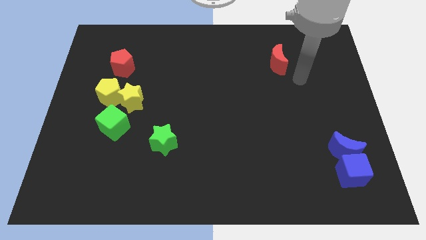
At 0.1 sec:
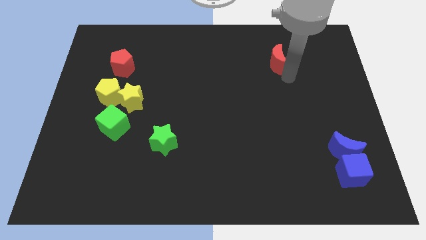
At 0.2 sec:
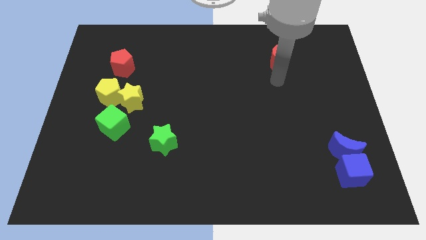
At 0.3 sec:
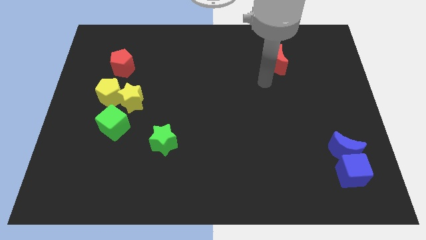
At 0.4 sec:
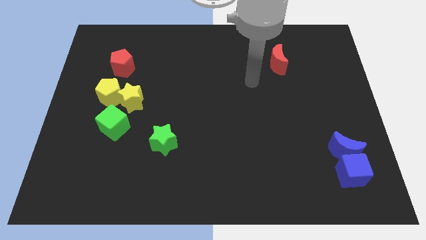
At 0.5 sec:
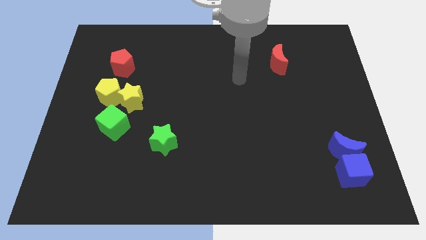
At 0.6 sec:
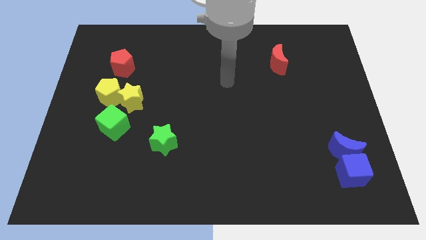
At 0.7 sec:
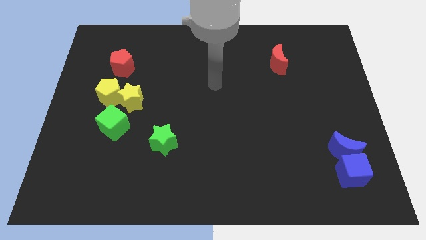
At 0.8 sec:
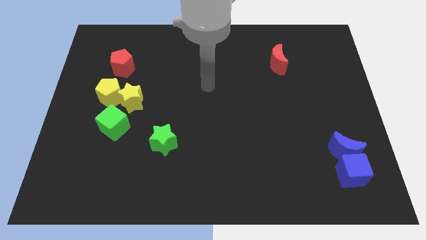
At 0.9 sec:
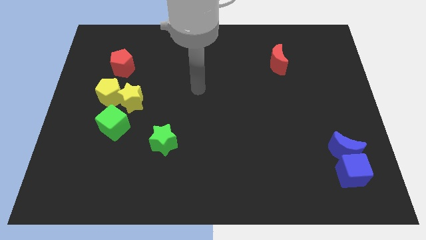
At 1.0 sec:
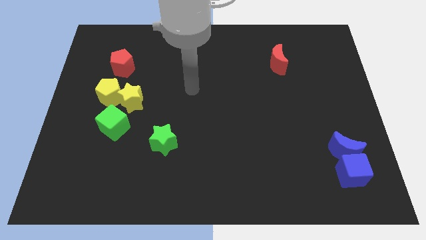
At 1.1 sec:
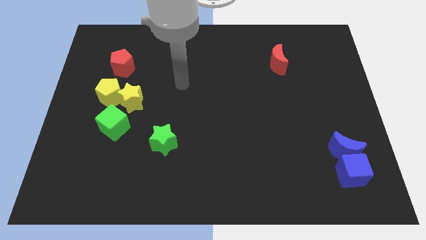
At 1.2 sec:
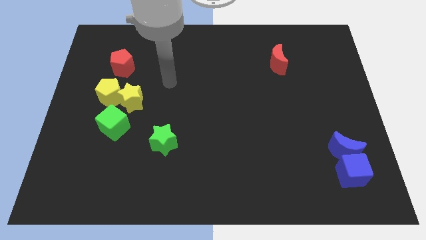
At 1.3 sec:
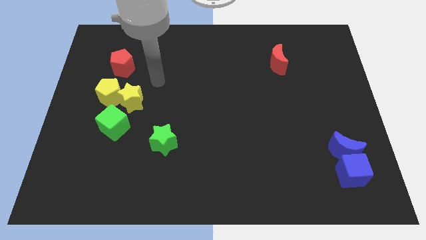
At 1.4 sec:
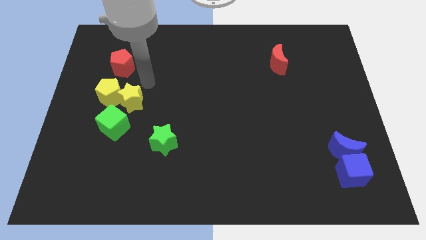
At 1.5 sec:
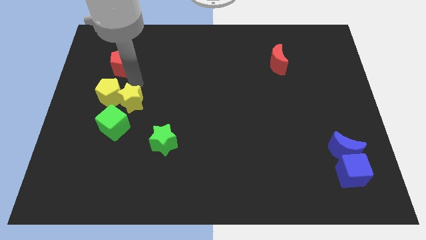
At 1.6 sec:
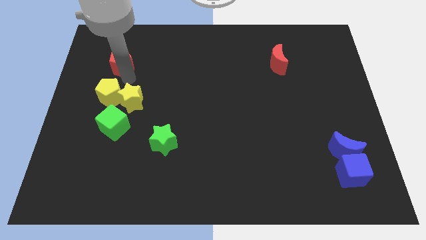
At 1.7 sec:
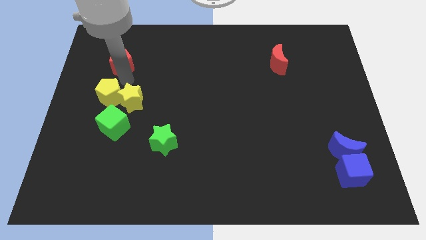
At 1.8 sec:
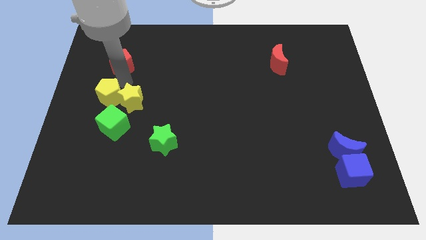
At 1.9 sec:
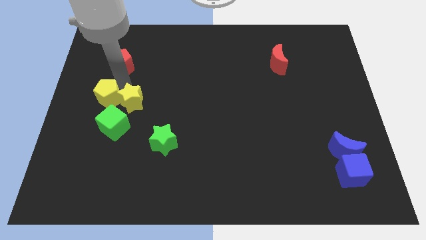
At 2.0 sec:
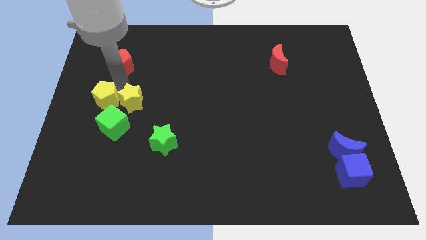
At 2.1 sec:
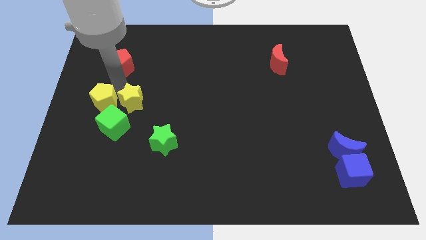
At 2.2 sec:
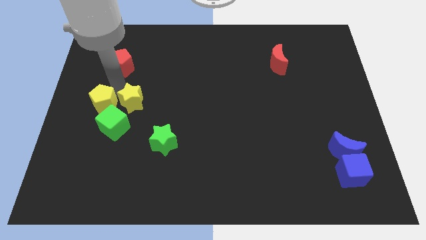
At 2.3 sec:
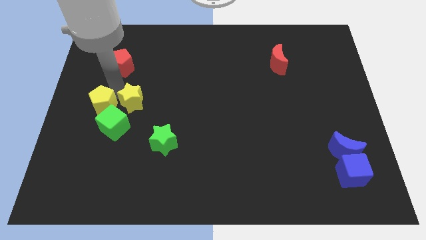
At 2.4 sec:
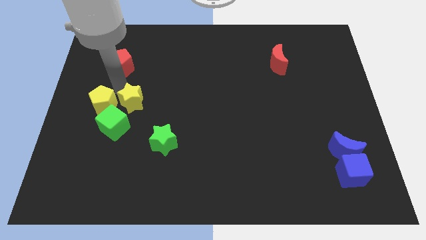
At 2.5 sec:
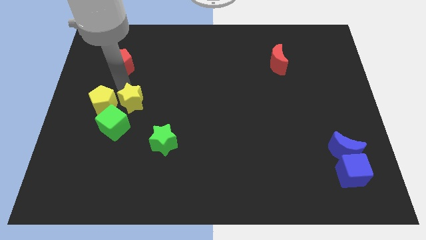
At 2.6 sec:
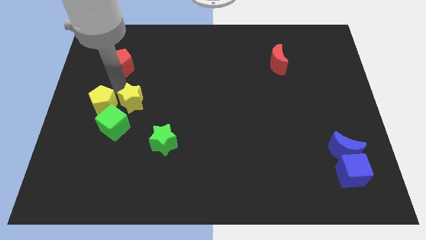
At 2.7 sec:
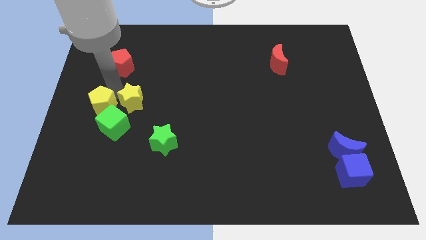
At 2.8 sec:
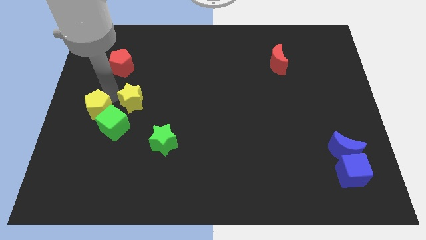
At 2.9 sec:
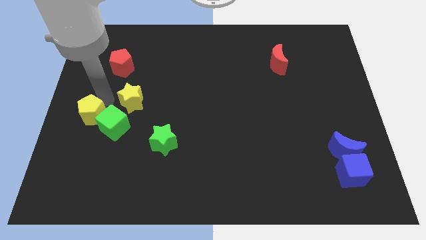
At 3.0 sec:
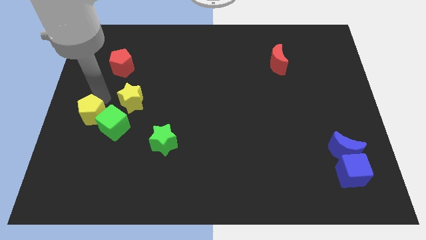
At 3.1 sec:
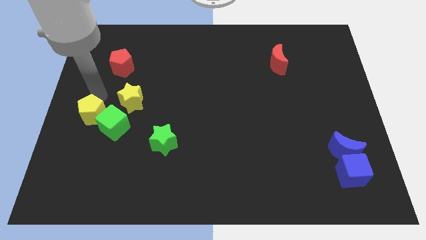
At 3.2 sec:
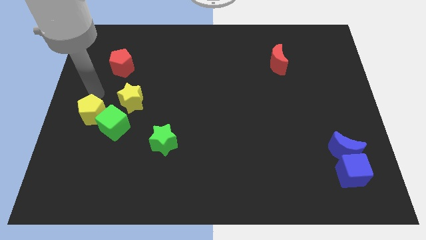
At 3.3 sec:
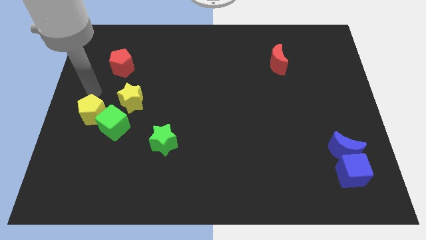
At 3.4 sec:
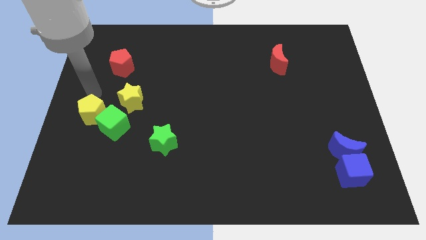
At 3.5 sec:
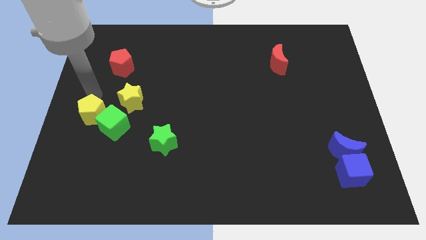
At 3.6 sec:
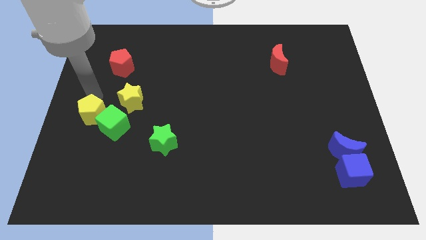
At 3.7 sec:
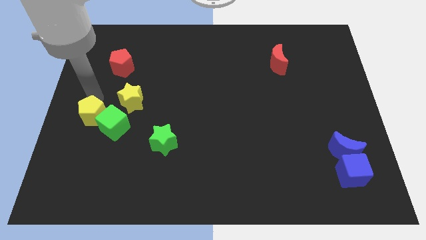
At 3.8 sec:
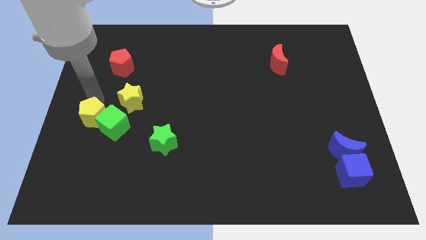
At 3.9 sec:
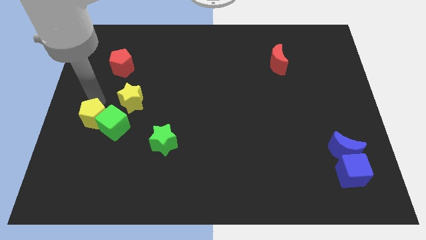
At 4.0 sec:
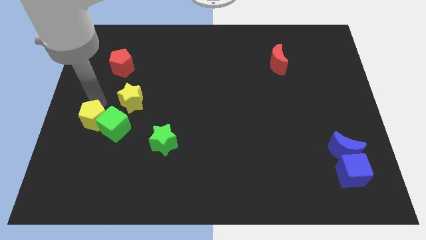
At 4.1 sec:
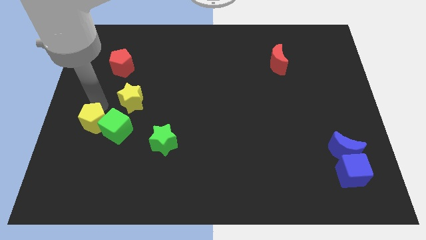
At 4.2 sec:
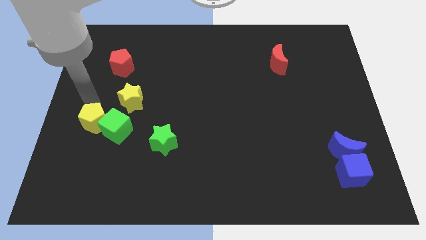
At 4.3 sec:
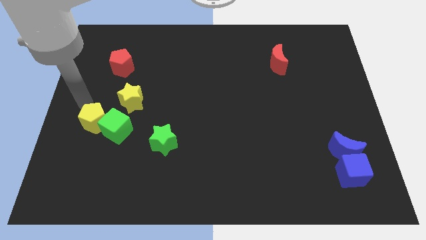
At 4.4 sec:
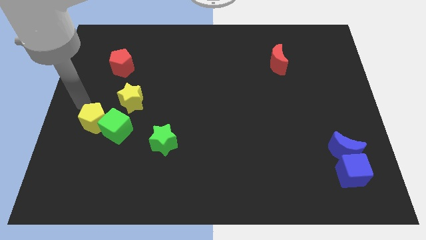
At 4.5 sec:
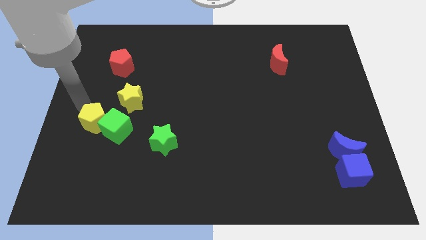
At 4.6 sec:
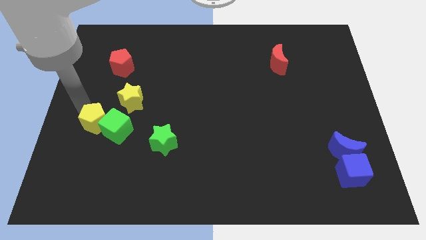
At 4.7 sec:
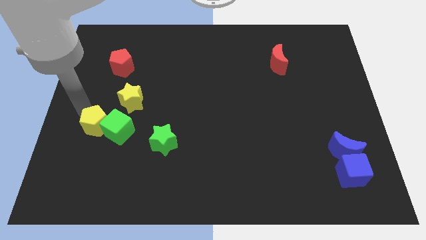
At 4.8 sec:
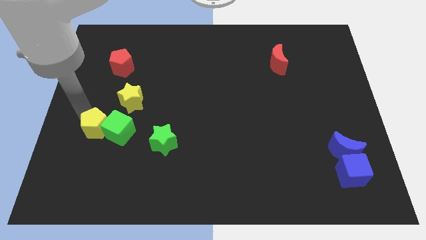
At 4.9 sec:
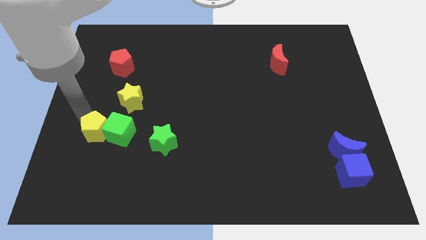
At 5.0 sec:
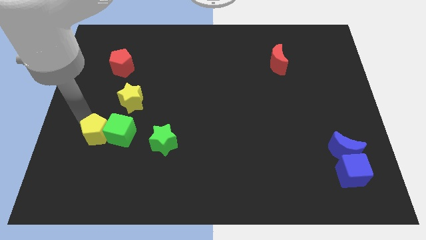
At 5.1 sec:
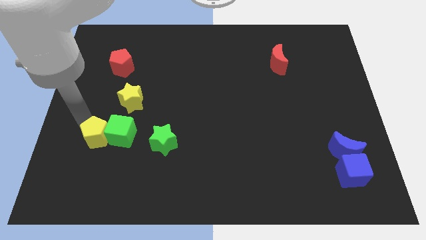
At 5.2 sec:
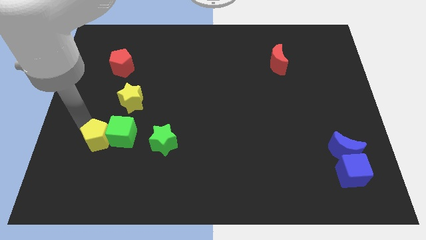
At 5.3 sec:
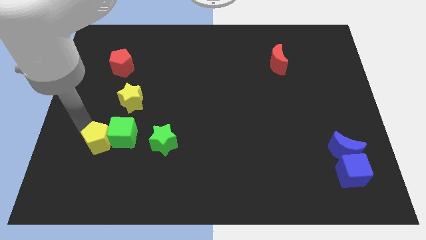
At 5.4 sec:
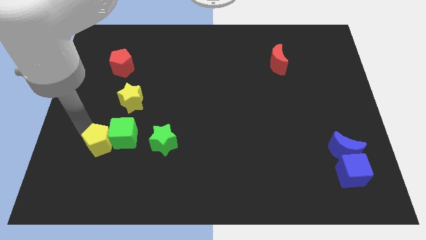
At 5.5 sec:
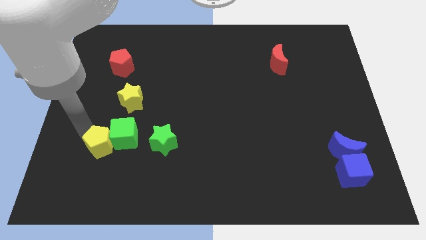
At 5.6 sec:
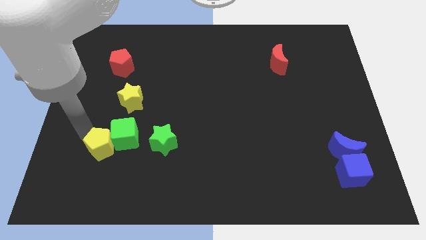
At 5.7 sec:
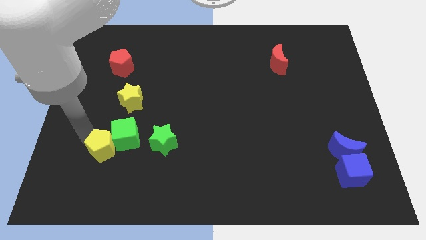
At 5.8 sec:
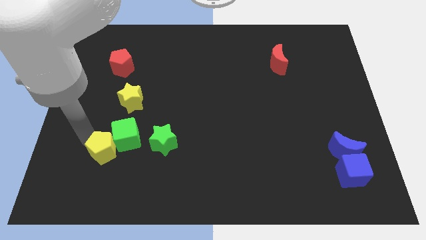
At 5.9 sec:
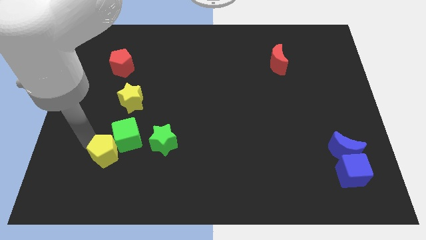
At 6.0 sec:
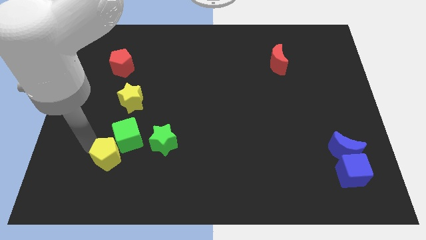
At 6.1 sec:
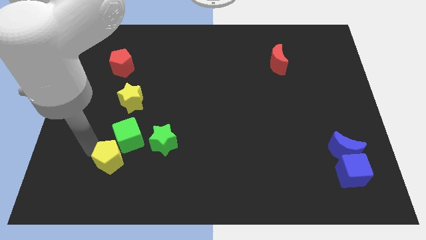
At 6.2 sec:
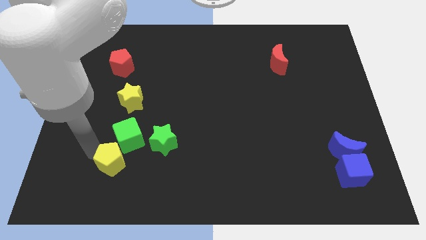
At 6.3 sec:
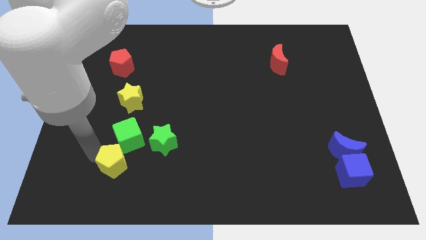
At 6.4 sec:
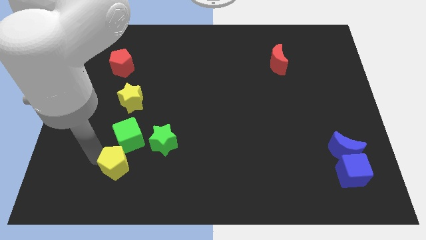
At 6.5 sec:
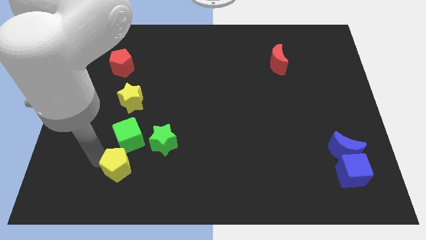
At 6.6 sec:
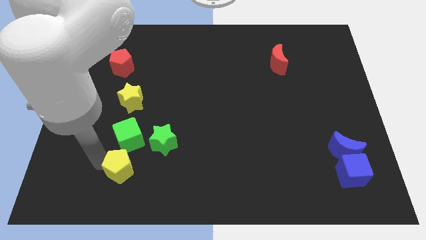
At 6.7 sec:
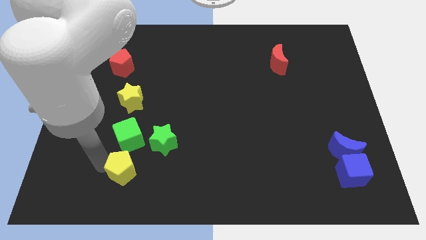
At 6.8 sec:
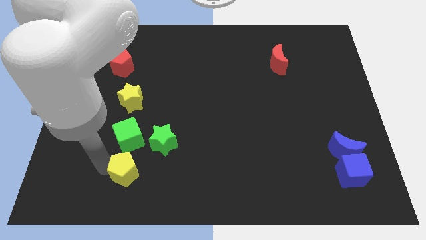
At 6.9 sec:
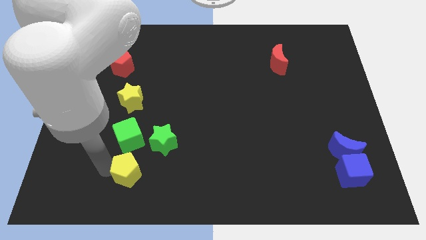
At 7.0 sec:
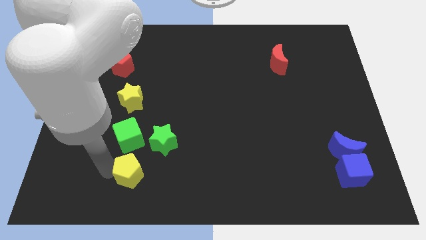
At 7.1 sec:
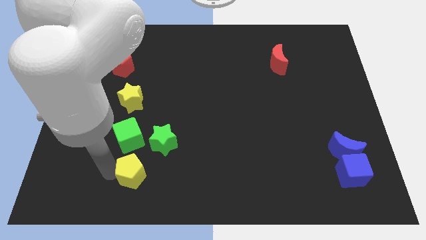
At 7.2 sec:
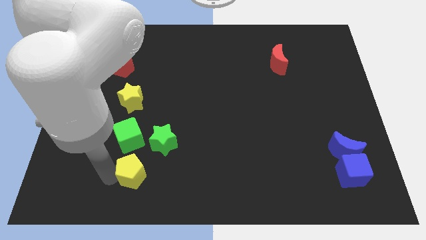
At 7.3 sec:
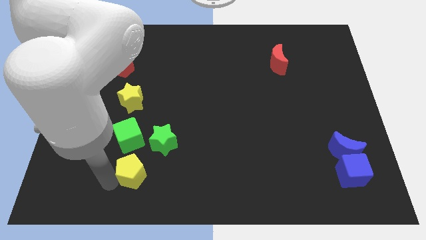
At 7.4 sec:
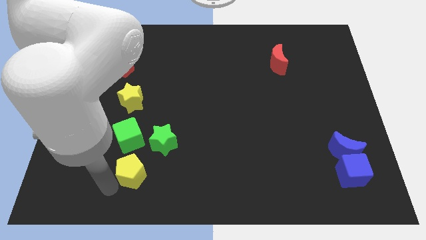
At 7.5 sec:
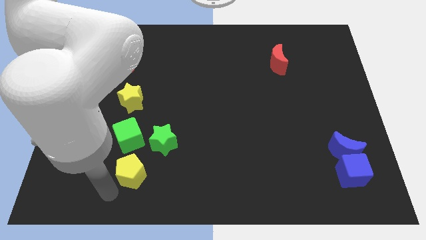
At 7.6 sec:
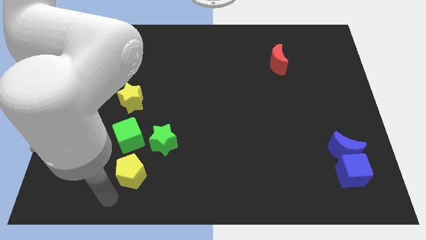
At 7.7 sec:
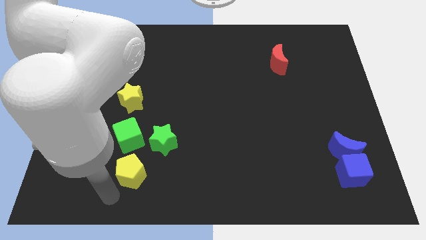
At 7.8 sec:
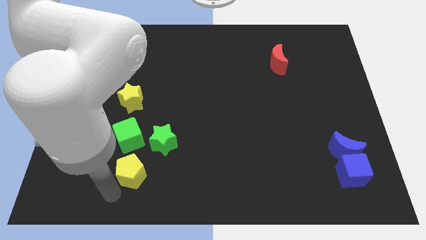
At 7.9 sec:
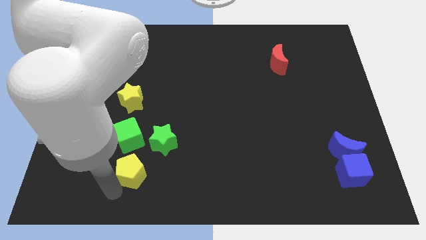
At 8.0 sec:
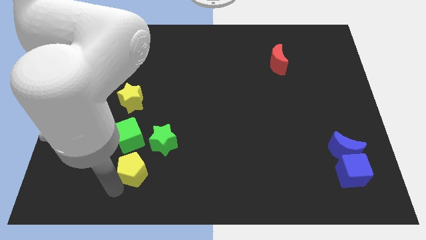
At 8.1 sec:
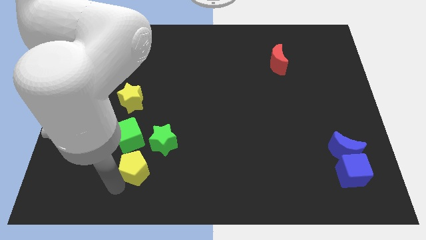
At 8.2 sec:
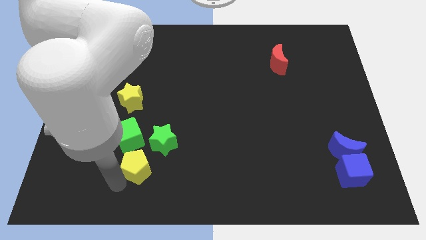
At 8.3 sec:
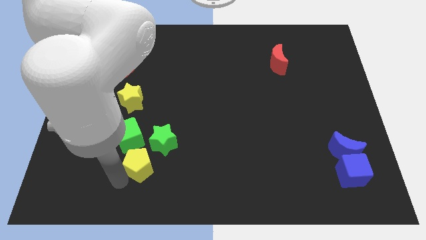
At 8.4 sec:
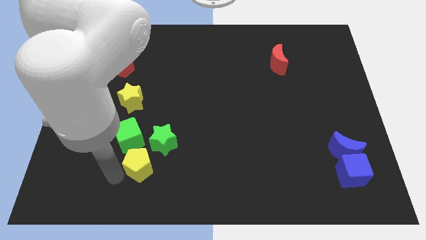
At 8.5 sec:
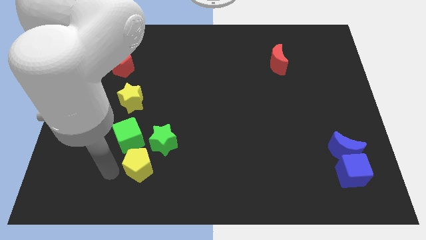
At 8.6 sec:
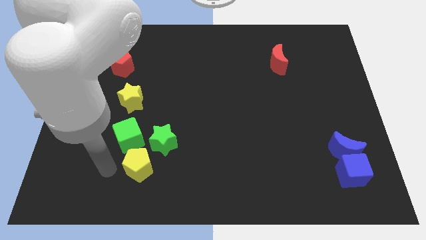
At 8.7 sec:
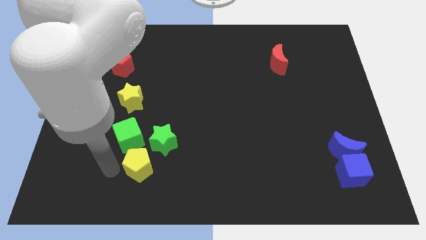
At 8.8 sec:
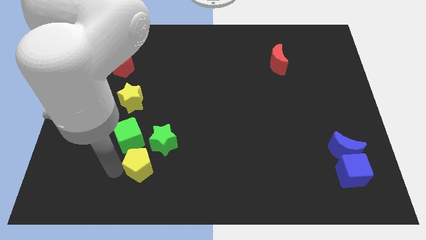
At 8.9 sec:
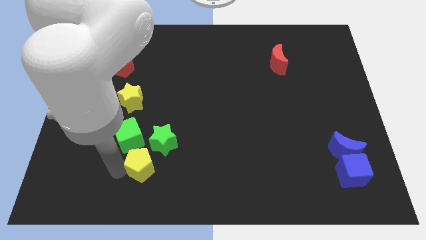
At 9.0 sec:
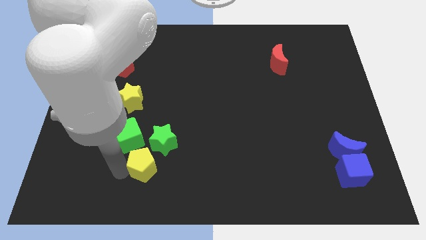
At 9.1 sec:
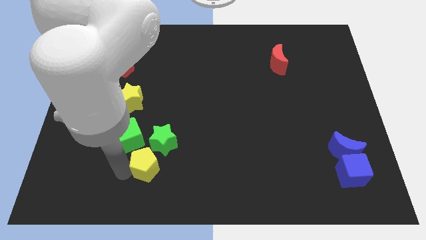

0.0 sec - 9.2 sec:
push the yellow pentagon down and right diagonally
